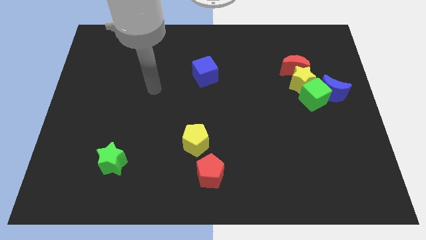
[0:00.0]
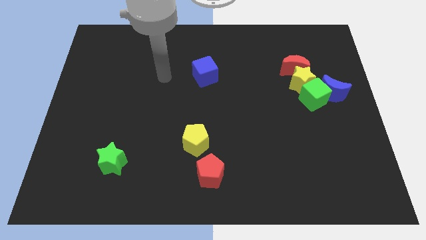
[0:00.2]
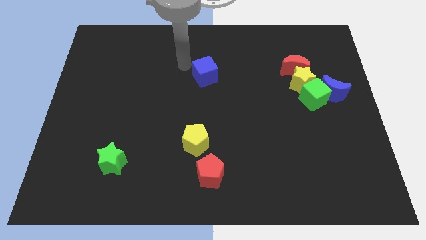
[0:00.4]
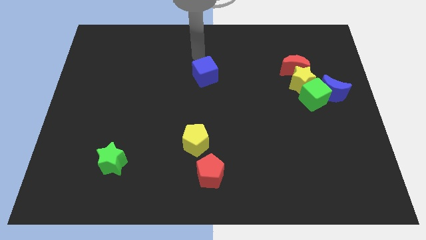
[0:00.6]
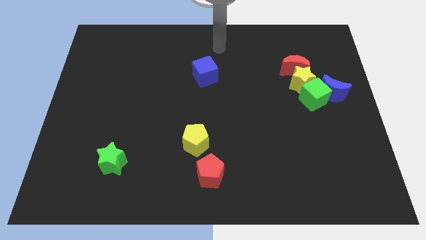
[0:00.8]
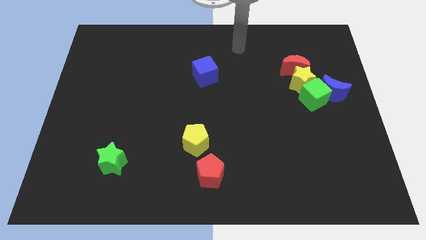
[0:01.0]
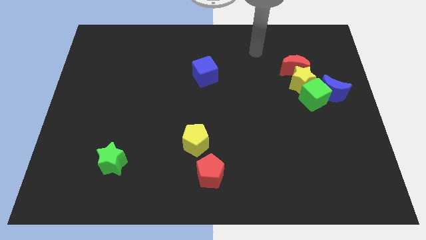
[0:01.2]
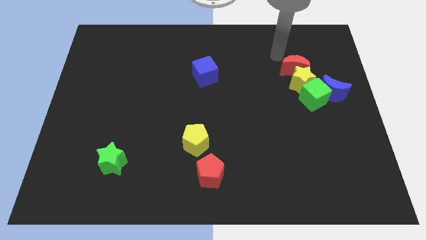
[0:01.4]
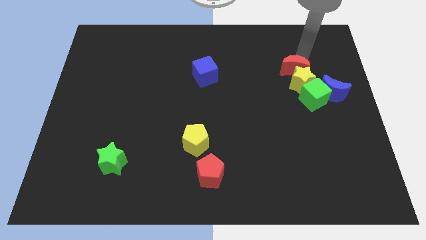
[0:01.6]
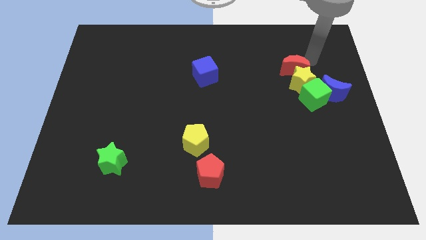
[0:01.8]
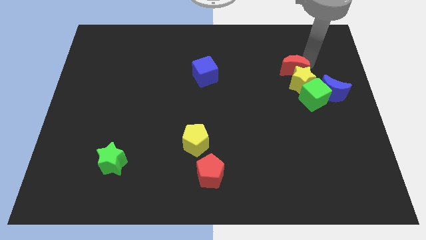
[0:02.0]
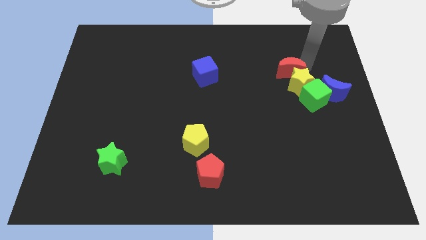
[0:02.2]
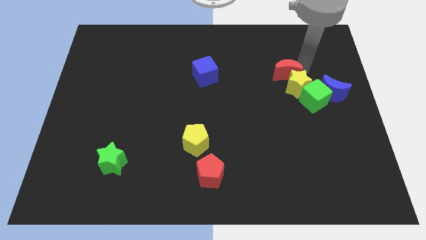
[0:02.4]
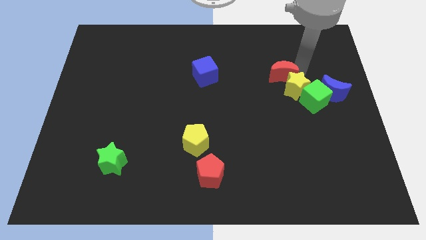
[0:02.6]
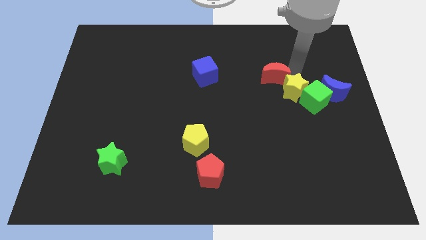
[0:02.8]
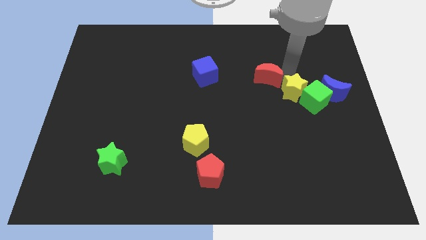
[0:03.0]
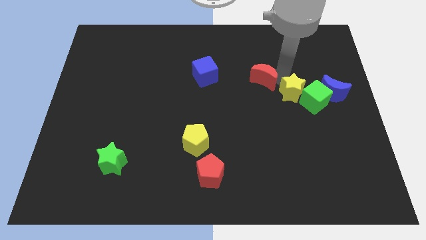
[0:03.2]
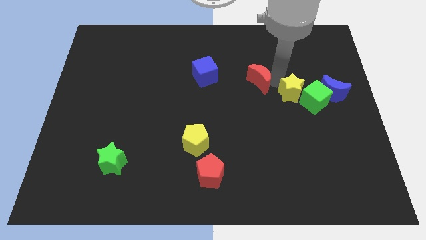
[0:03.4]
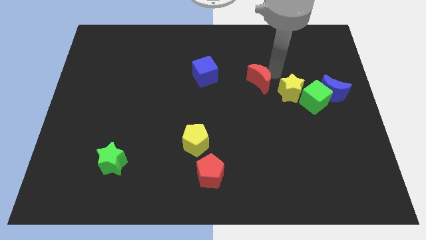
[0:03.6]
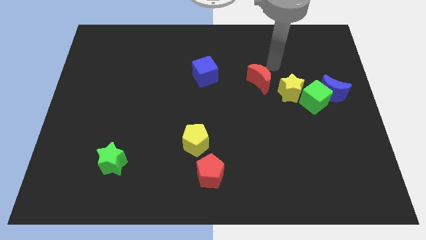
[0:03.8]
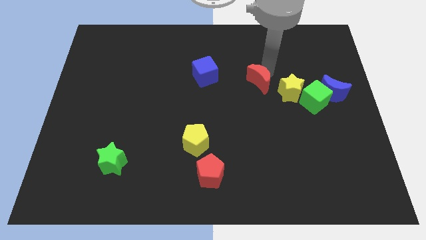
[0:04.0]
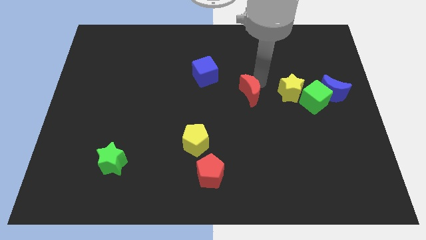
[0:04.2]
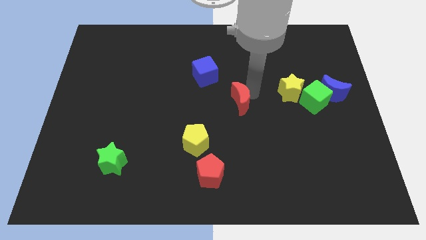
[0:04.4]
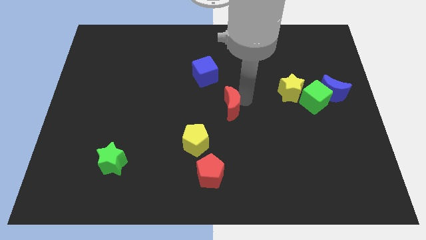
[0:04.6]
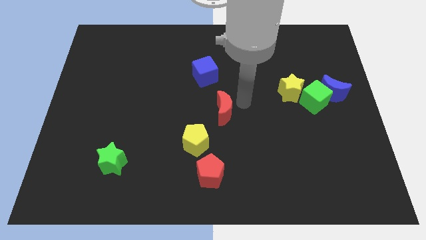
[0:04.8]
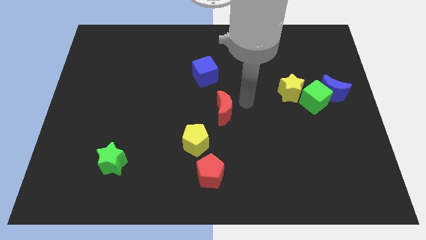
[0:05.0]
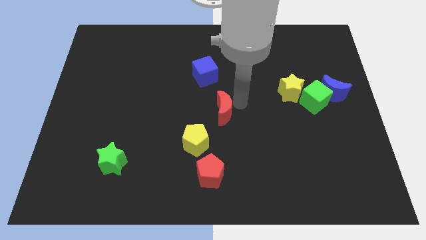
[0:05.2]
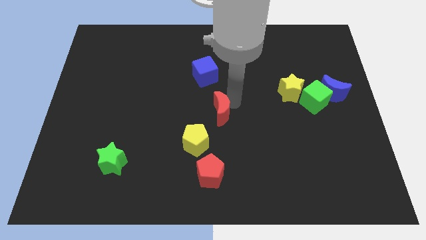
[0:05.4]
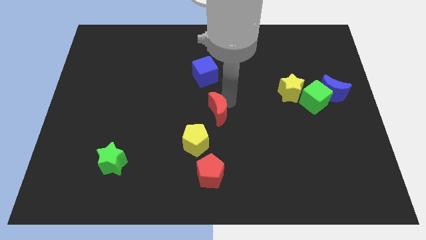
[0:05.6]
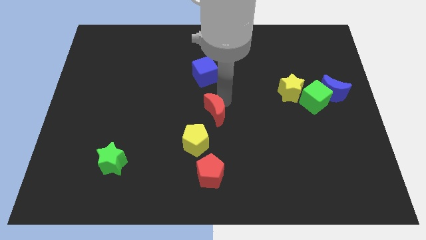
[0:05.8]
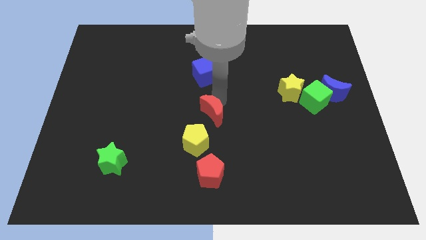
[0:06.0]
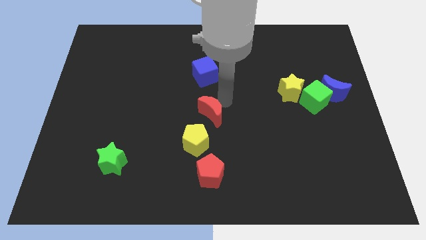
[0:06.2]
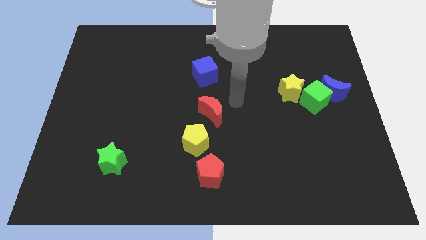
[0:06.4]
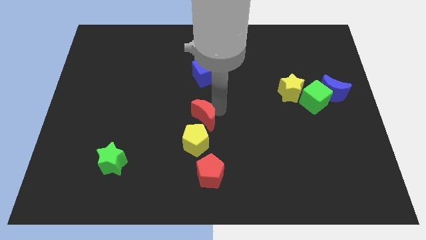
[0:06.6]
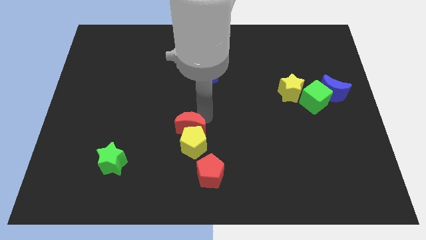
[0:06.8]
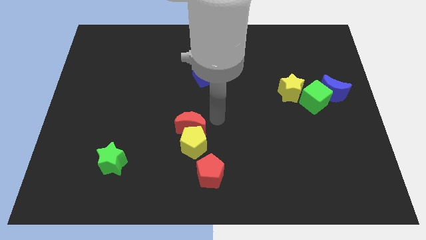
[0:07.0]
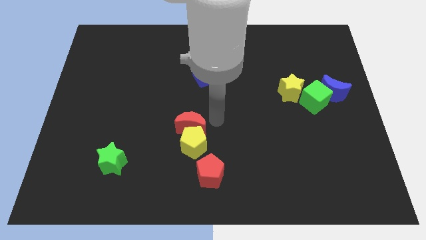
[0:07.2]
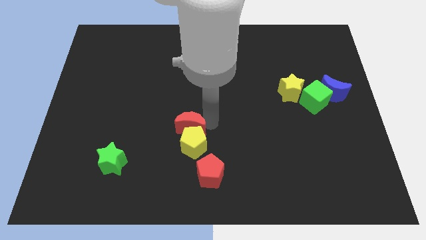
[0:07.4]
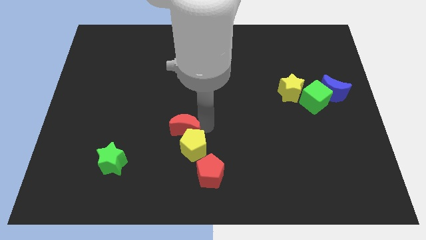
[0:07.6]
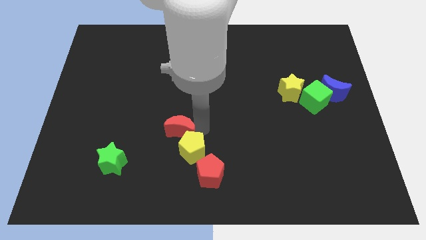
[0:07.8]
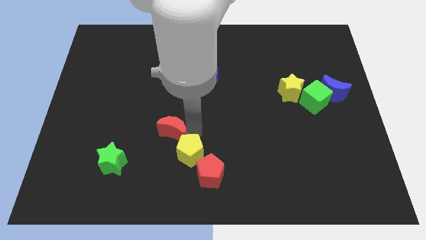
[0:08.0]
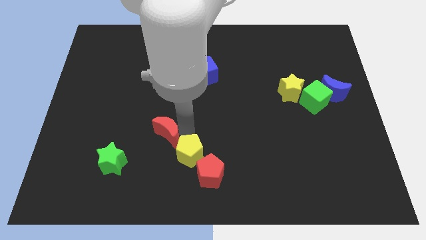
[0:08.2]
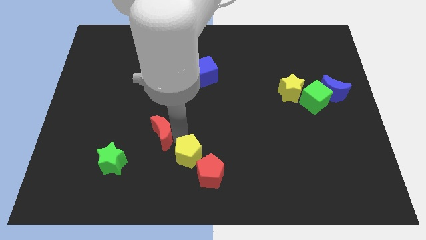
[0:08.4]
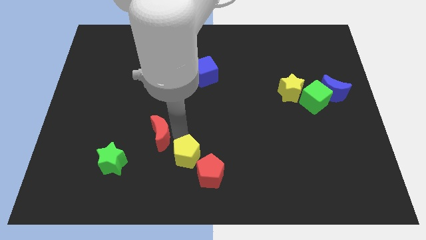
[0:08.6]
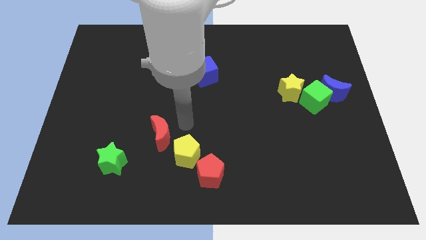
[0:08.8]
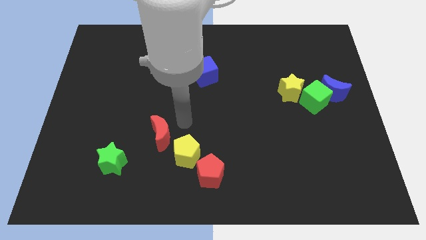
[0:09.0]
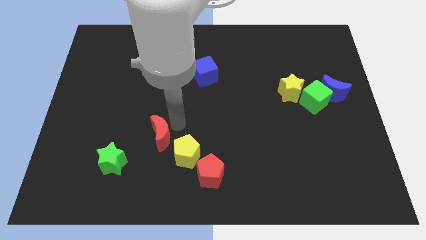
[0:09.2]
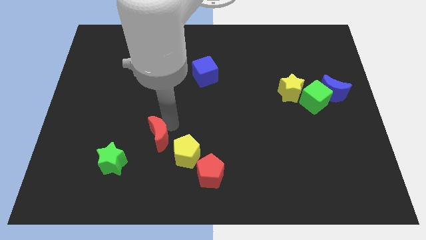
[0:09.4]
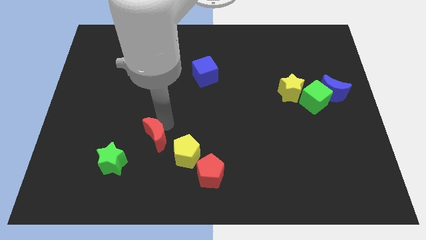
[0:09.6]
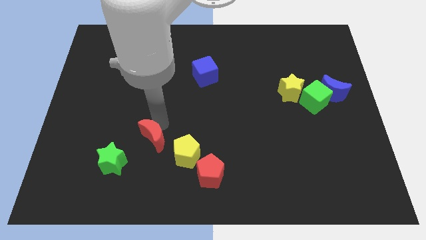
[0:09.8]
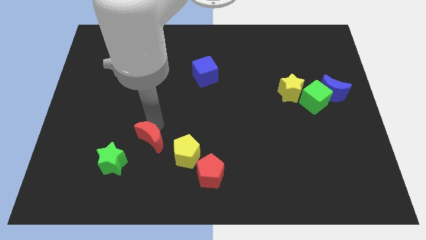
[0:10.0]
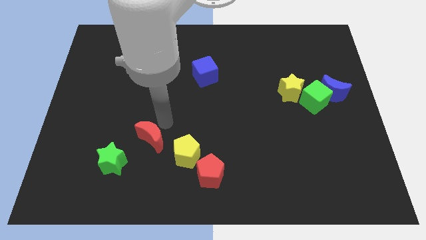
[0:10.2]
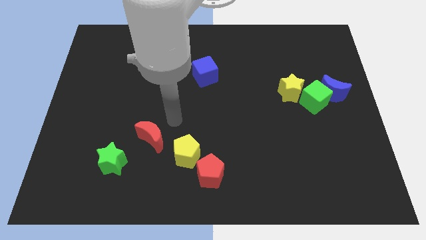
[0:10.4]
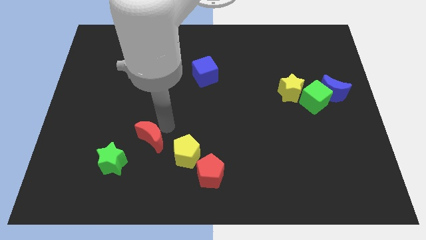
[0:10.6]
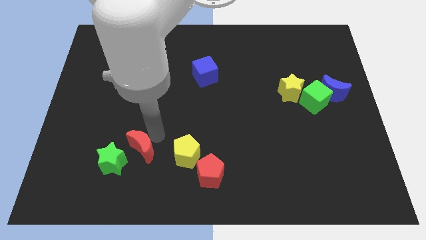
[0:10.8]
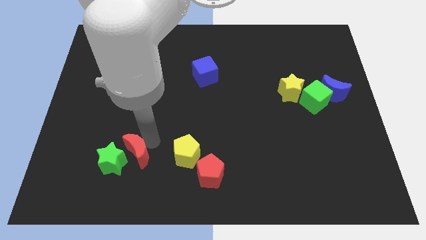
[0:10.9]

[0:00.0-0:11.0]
slide the red moon towards the green star
